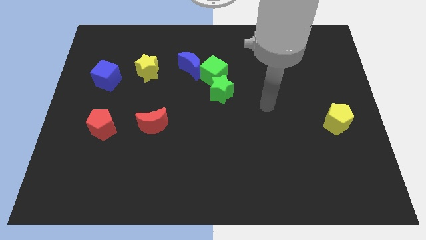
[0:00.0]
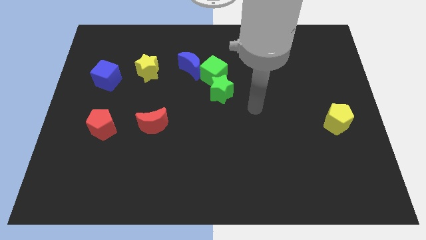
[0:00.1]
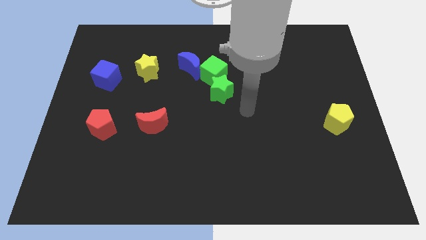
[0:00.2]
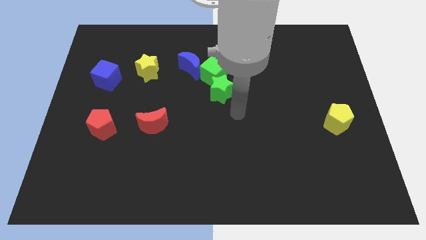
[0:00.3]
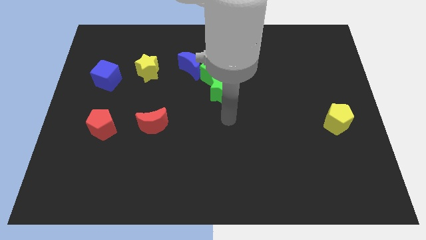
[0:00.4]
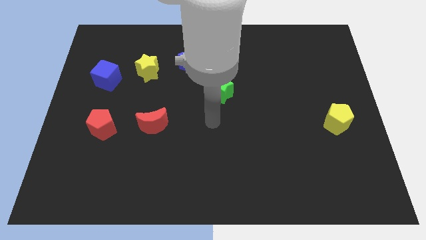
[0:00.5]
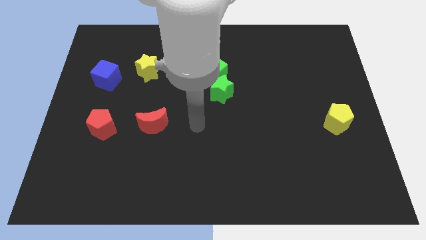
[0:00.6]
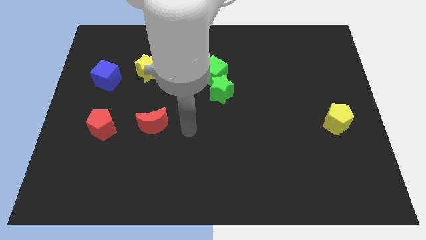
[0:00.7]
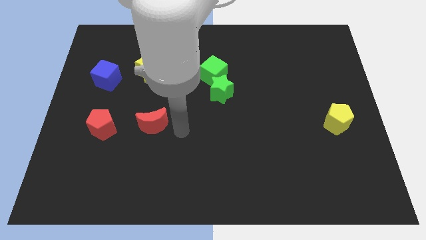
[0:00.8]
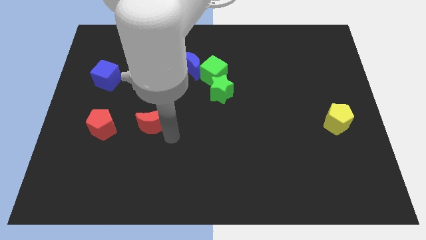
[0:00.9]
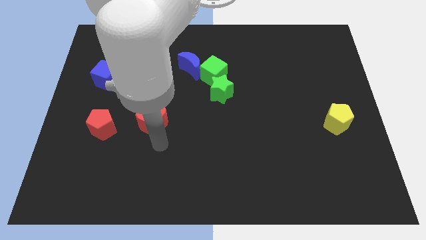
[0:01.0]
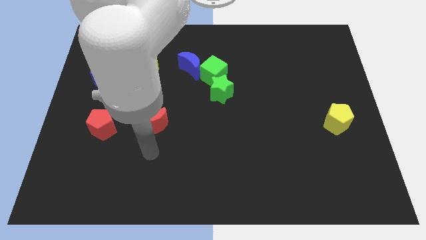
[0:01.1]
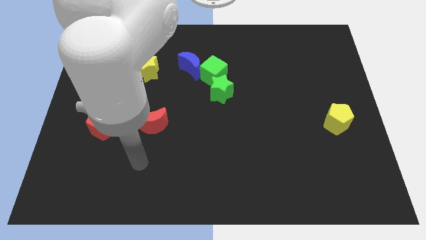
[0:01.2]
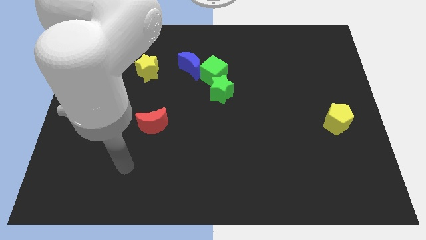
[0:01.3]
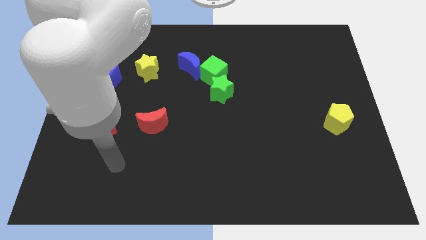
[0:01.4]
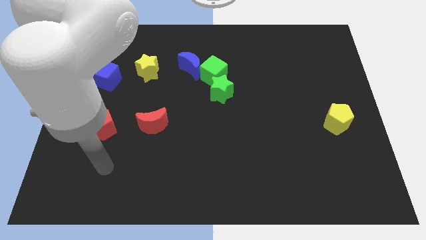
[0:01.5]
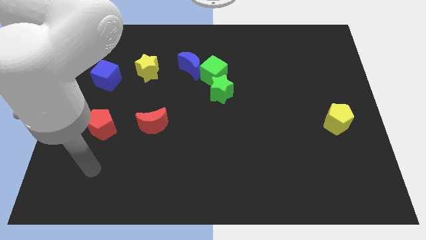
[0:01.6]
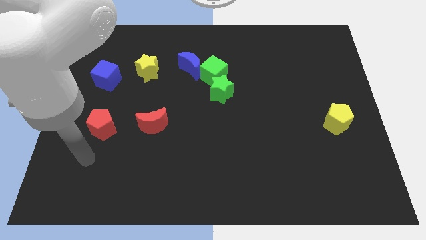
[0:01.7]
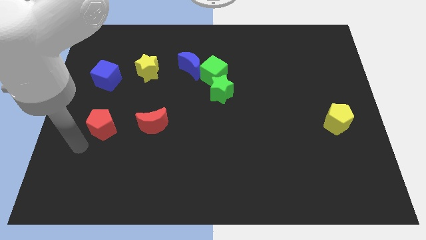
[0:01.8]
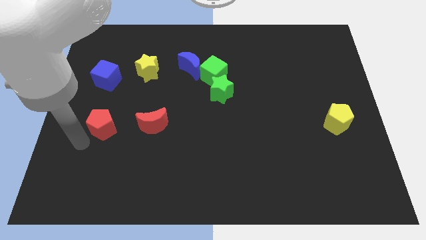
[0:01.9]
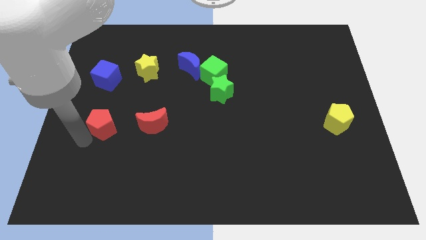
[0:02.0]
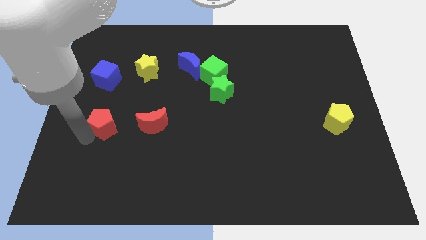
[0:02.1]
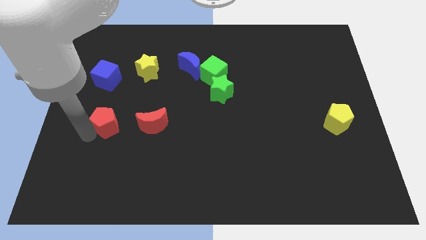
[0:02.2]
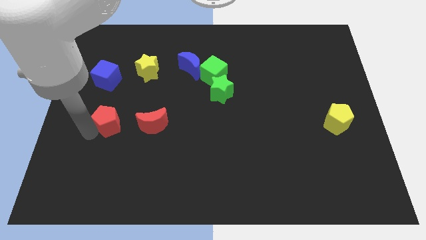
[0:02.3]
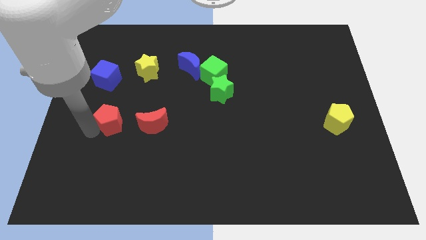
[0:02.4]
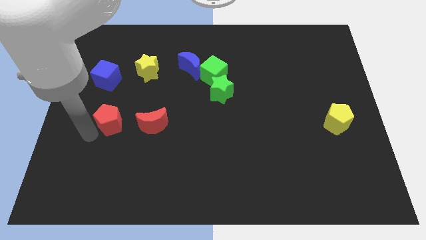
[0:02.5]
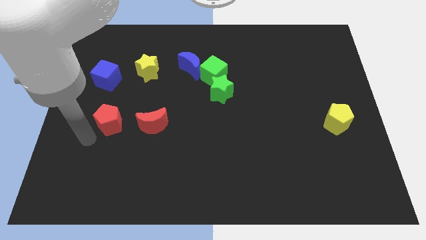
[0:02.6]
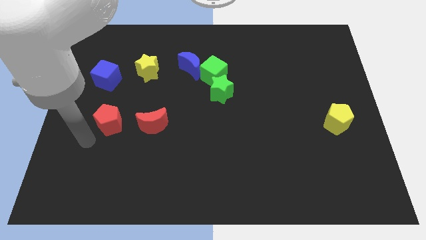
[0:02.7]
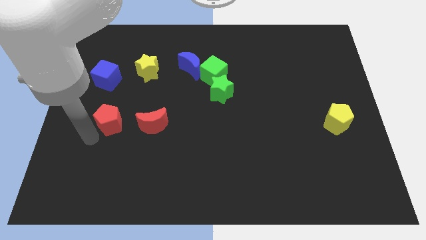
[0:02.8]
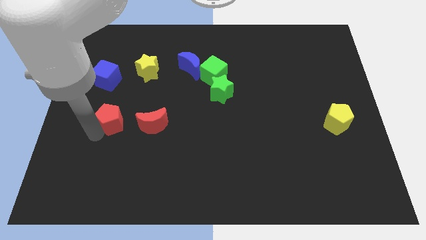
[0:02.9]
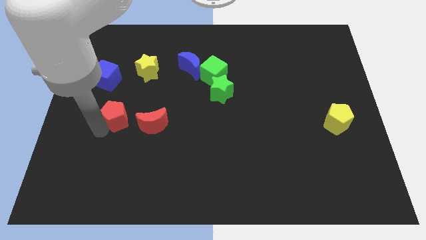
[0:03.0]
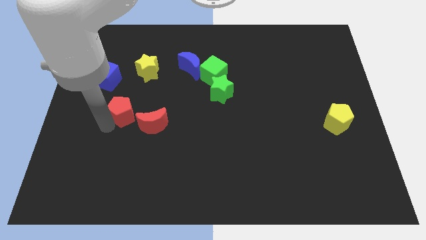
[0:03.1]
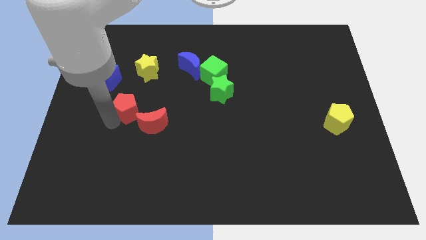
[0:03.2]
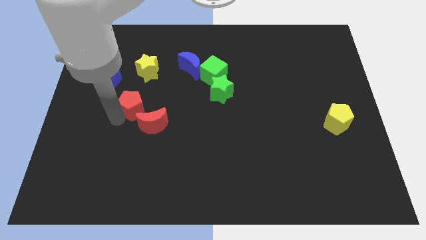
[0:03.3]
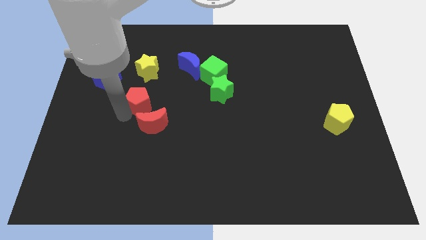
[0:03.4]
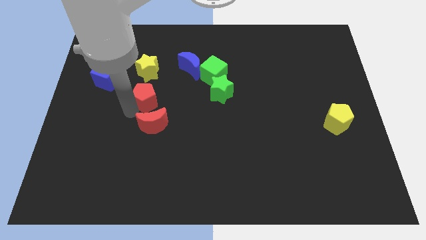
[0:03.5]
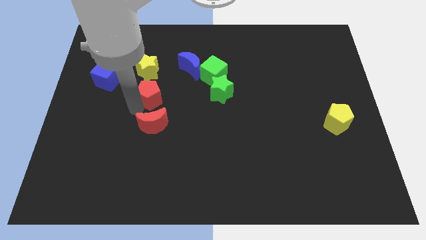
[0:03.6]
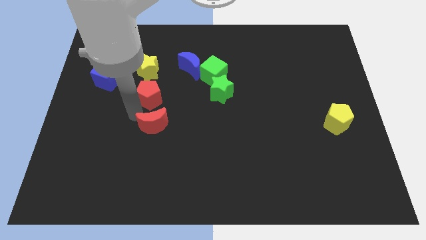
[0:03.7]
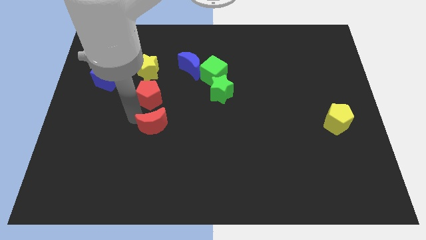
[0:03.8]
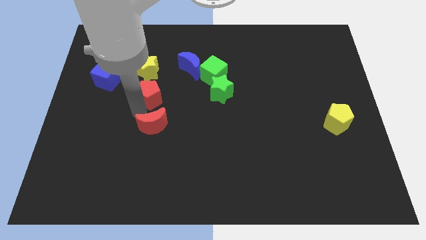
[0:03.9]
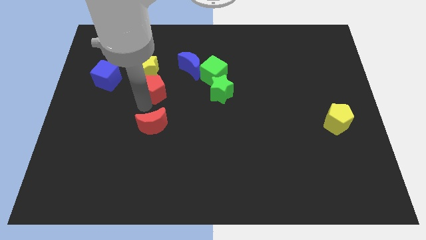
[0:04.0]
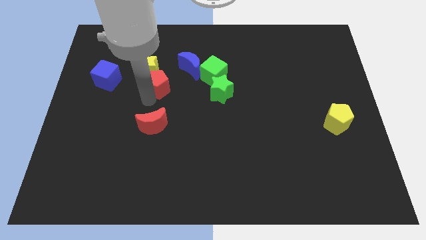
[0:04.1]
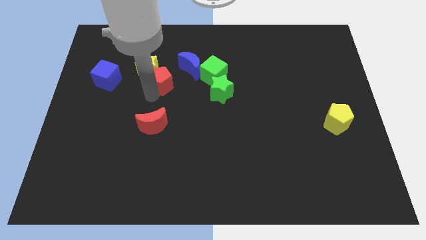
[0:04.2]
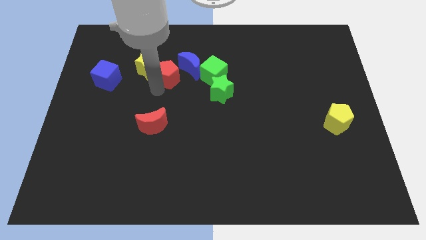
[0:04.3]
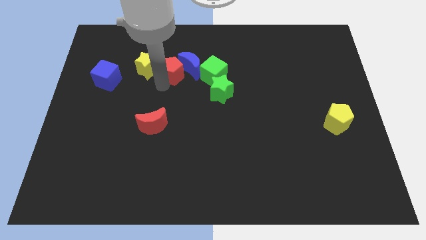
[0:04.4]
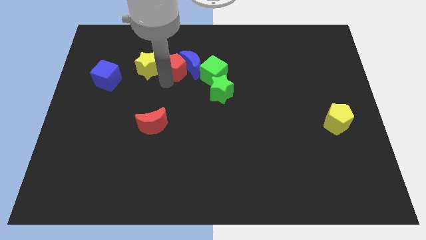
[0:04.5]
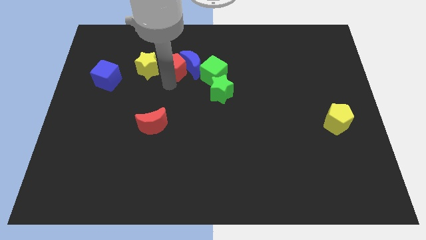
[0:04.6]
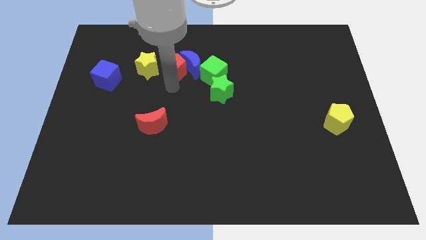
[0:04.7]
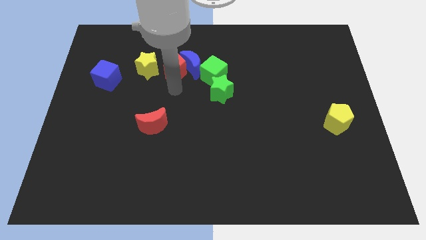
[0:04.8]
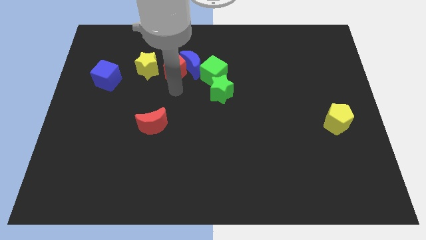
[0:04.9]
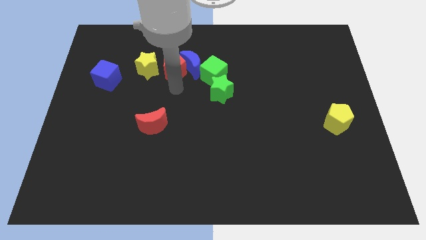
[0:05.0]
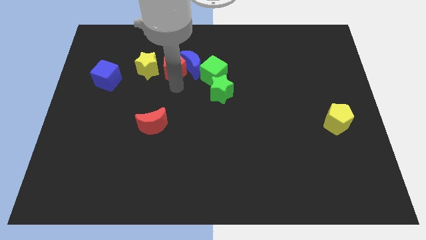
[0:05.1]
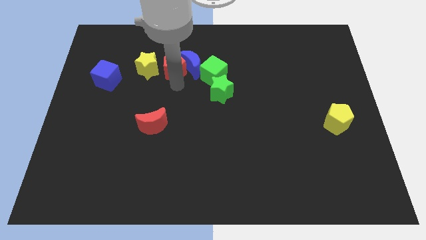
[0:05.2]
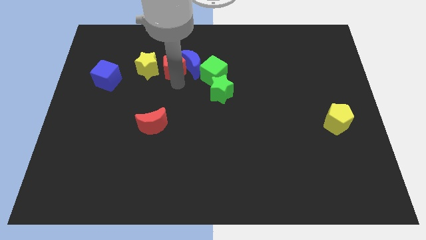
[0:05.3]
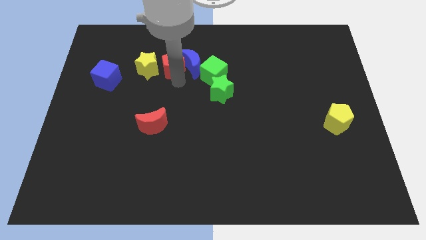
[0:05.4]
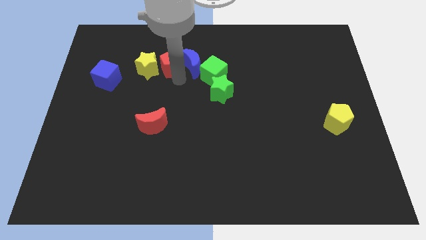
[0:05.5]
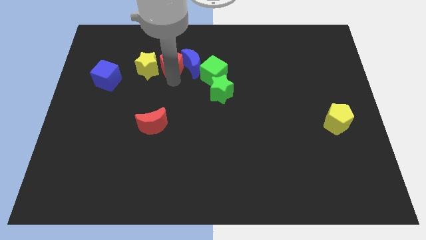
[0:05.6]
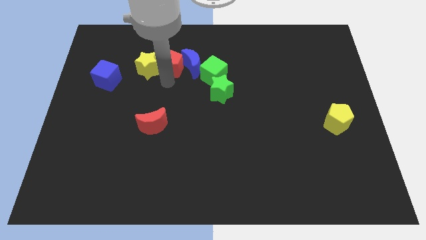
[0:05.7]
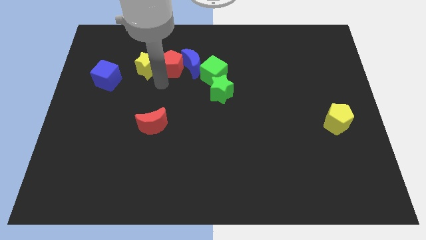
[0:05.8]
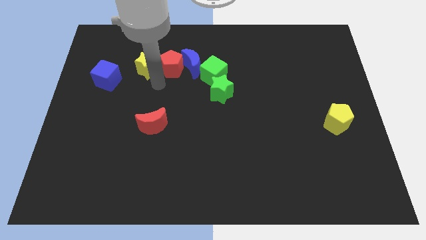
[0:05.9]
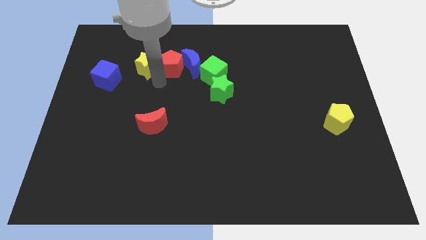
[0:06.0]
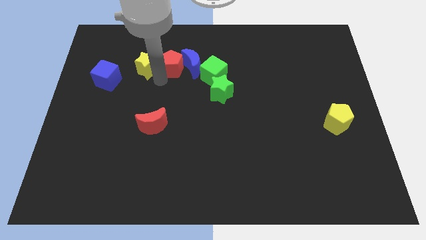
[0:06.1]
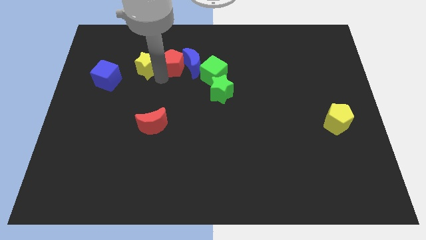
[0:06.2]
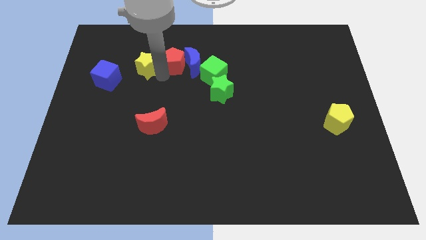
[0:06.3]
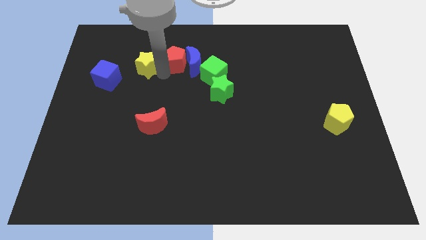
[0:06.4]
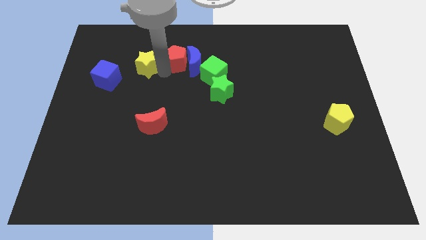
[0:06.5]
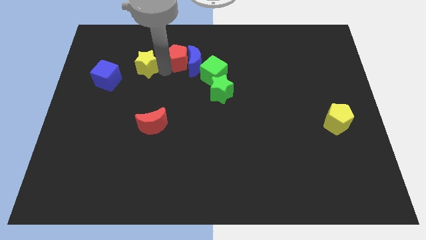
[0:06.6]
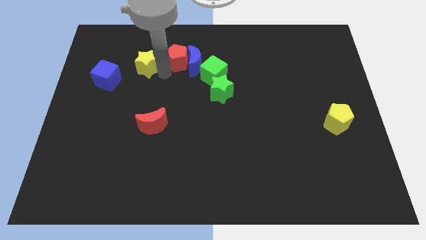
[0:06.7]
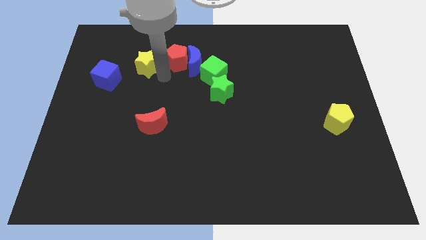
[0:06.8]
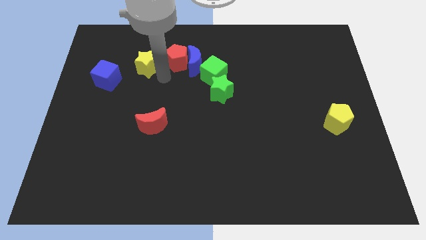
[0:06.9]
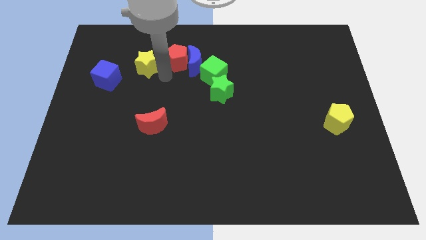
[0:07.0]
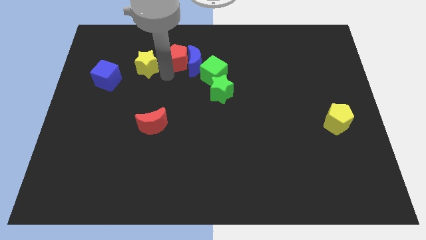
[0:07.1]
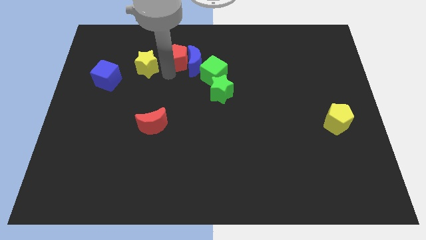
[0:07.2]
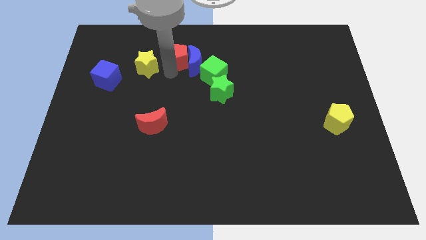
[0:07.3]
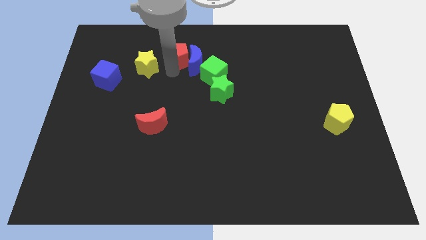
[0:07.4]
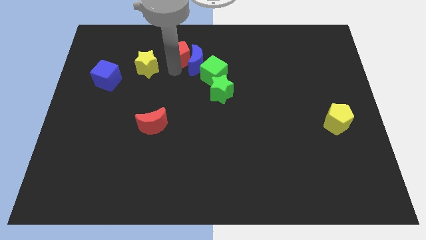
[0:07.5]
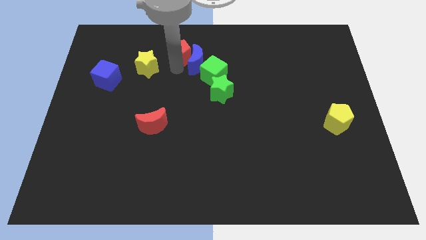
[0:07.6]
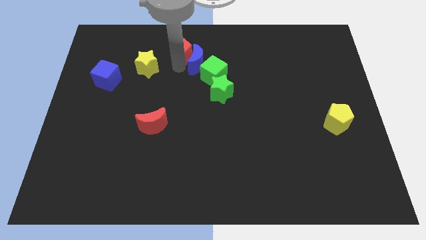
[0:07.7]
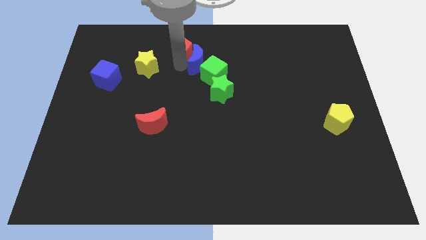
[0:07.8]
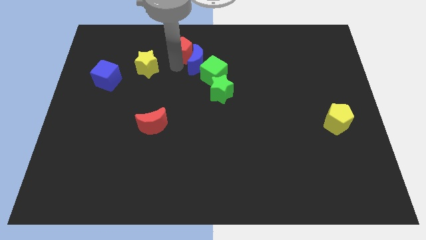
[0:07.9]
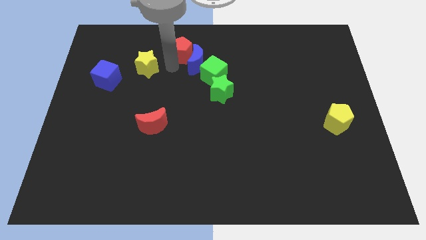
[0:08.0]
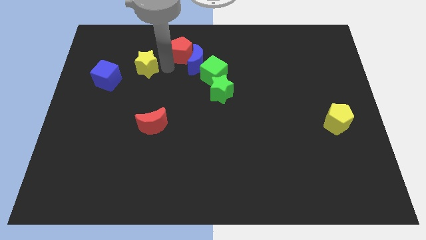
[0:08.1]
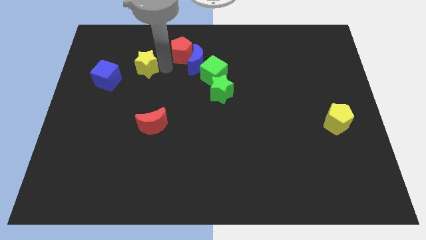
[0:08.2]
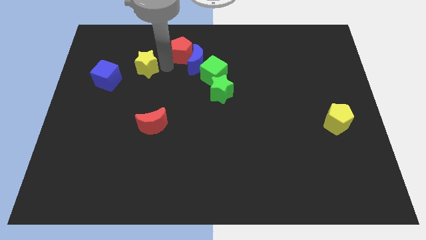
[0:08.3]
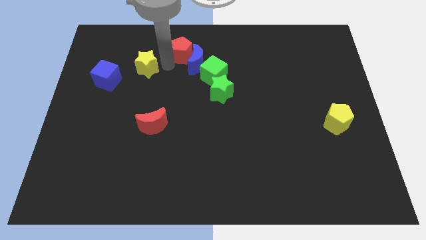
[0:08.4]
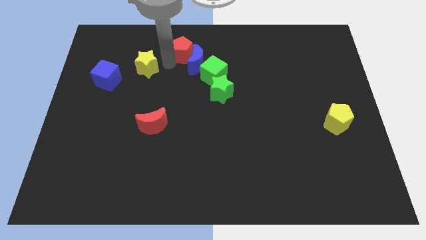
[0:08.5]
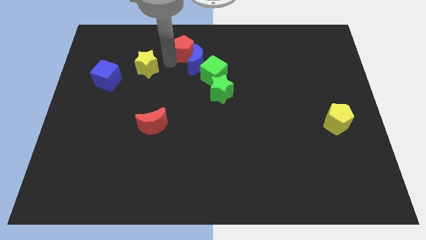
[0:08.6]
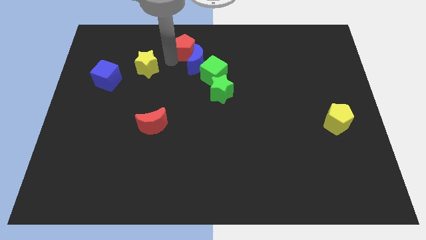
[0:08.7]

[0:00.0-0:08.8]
slide the red pentagon to the towards your base
